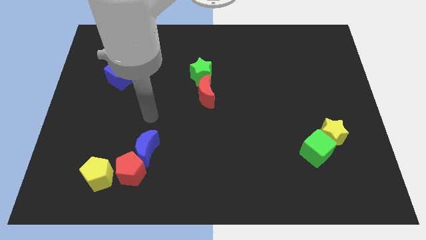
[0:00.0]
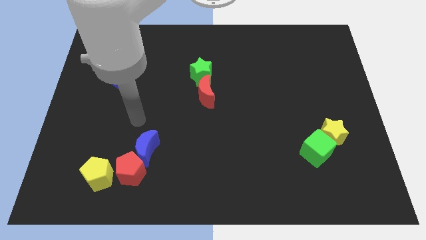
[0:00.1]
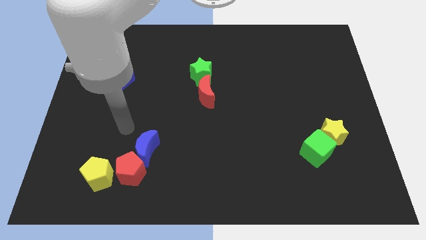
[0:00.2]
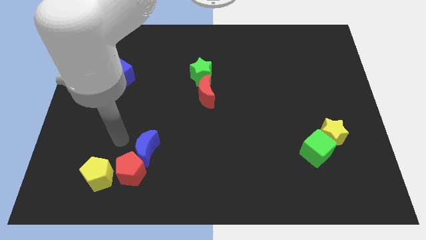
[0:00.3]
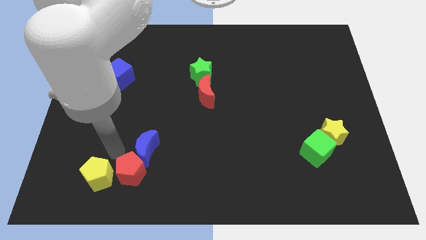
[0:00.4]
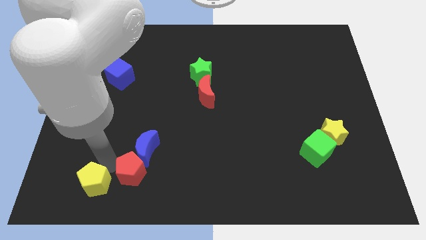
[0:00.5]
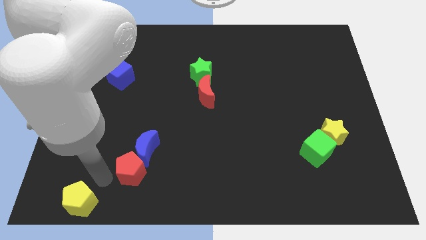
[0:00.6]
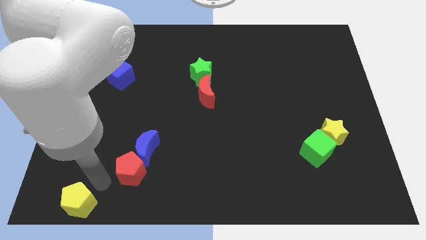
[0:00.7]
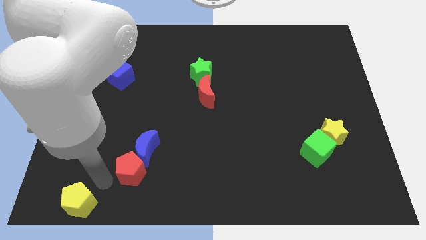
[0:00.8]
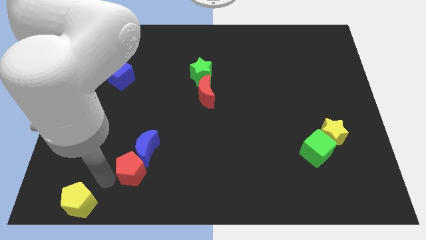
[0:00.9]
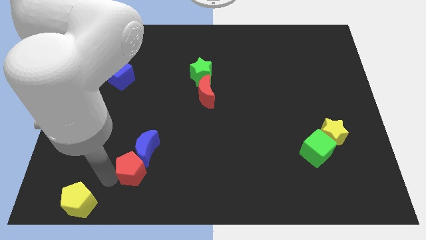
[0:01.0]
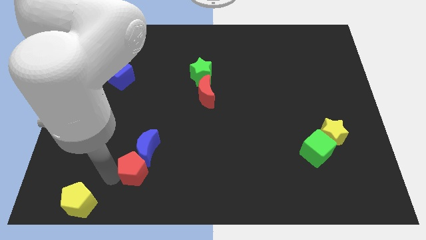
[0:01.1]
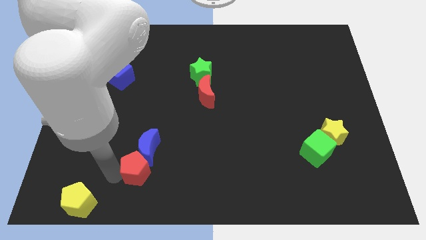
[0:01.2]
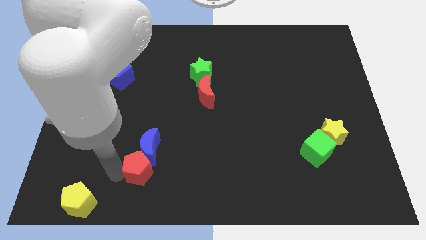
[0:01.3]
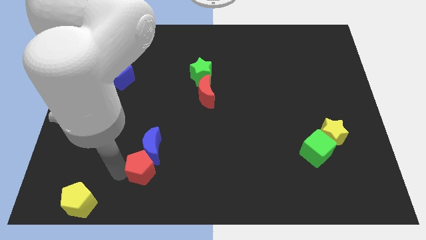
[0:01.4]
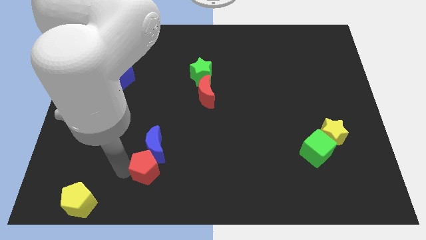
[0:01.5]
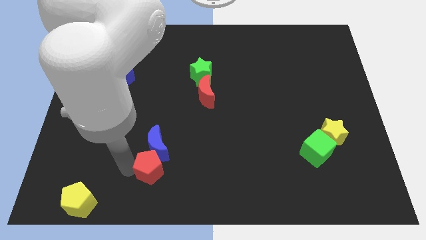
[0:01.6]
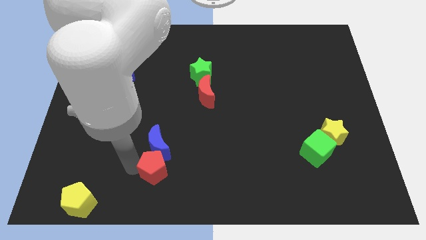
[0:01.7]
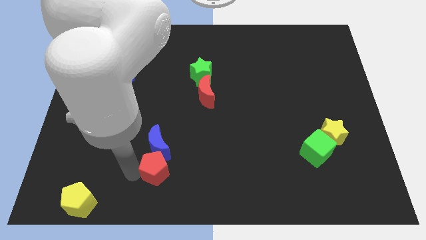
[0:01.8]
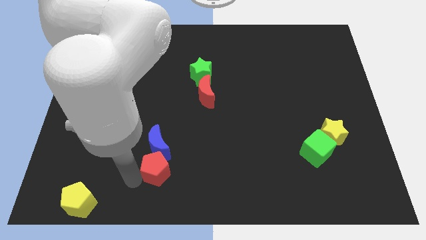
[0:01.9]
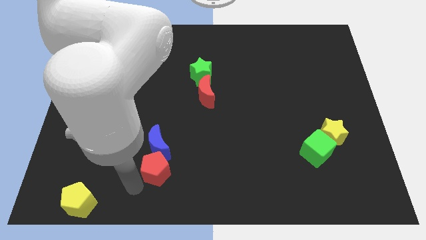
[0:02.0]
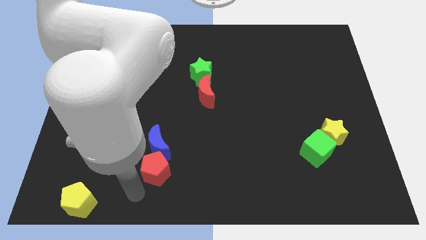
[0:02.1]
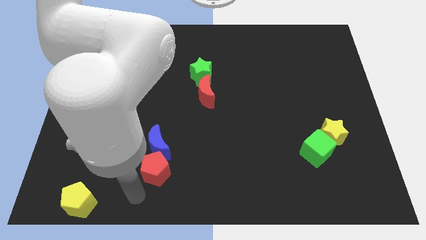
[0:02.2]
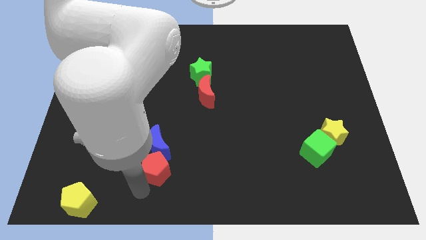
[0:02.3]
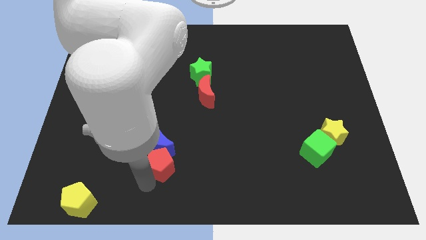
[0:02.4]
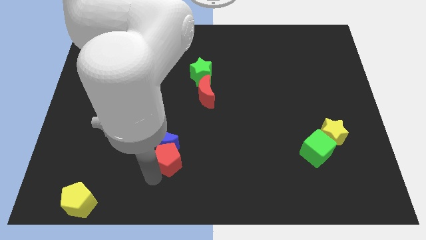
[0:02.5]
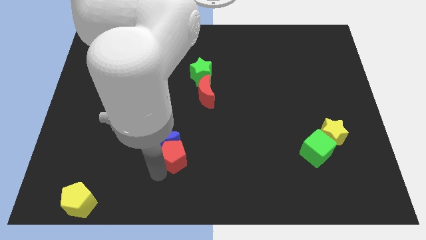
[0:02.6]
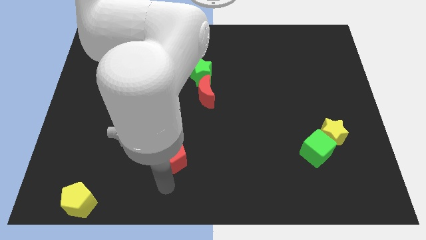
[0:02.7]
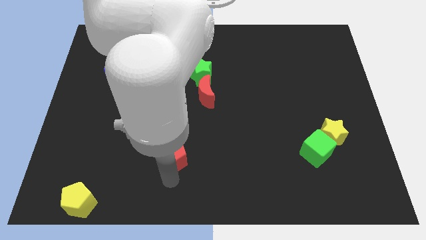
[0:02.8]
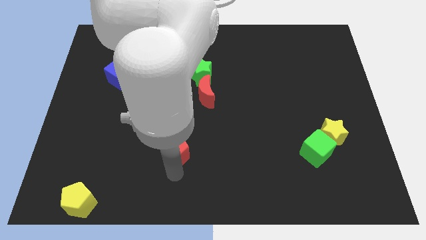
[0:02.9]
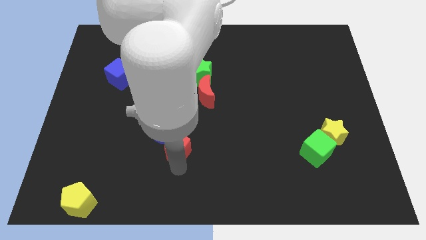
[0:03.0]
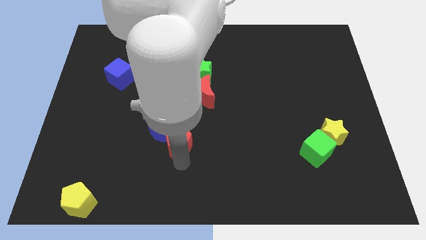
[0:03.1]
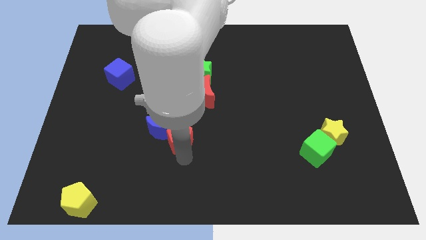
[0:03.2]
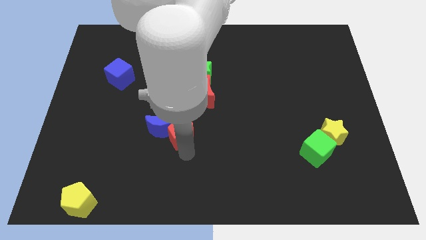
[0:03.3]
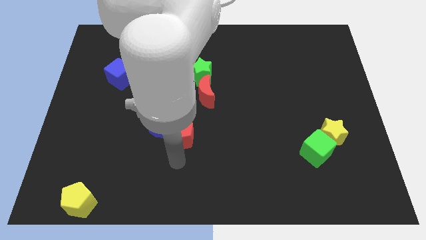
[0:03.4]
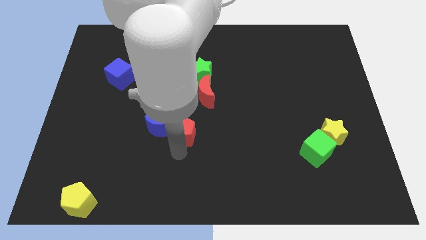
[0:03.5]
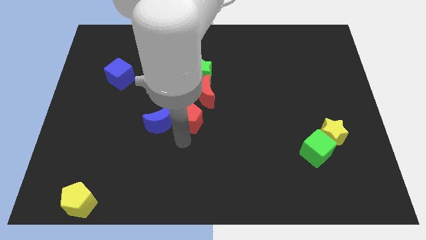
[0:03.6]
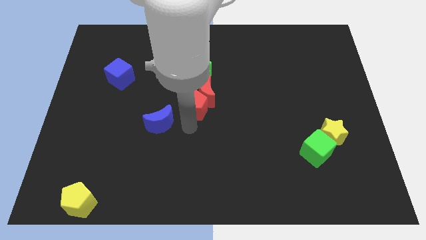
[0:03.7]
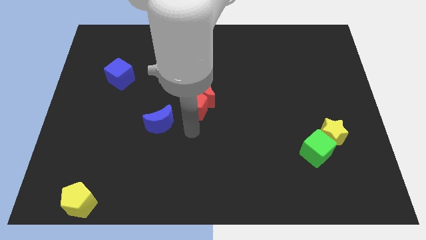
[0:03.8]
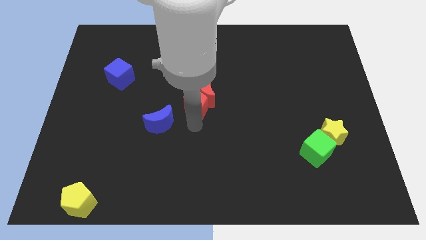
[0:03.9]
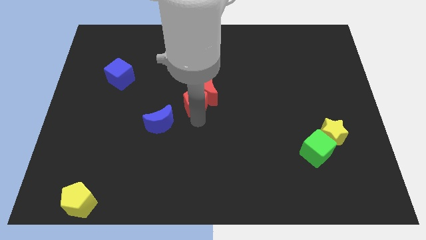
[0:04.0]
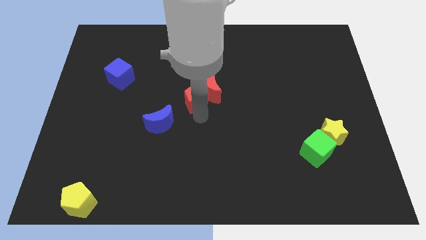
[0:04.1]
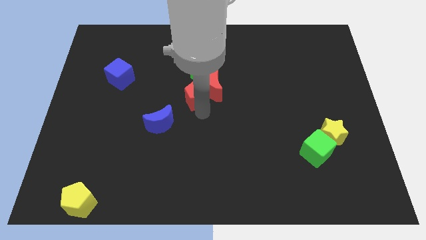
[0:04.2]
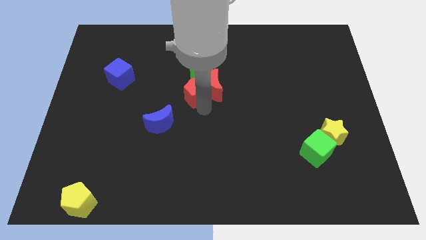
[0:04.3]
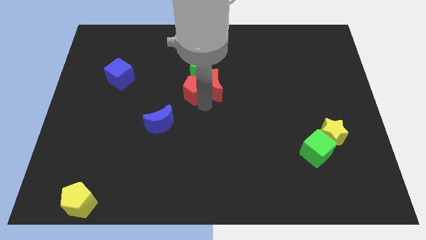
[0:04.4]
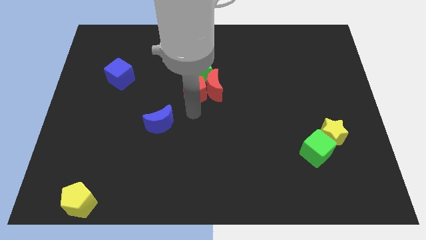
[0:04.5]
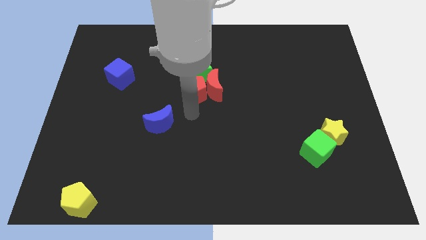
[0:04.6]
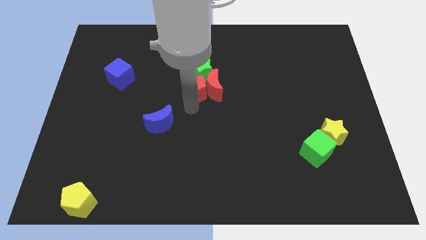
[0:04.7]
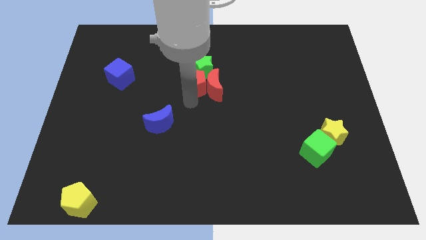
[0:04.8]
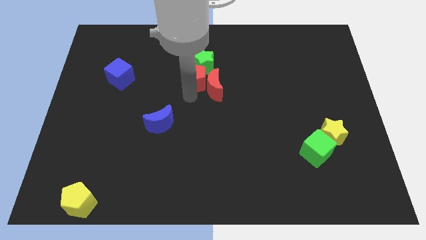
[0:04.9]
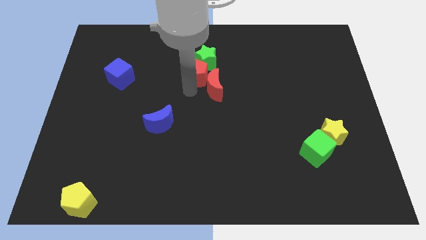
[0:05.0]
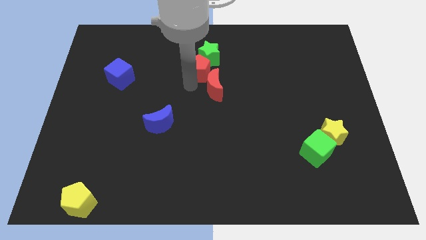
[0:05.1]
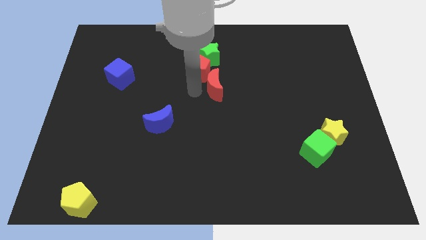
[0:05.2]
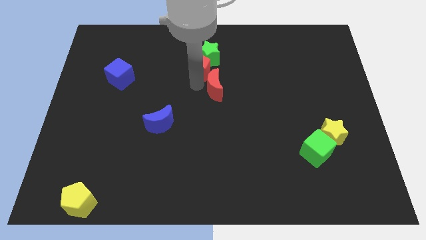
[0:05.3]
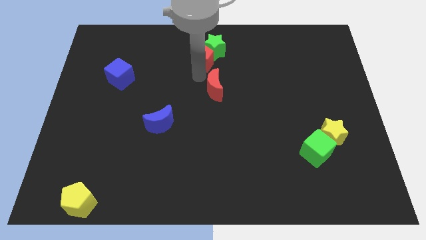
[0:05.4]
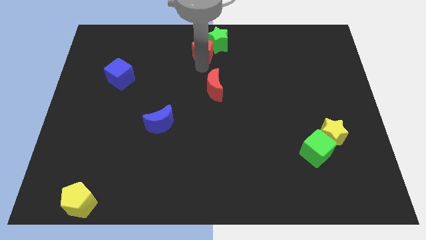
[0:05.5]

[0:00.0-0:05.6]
move the red pentagon to the towards your base

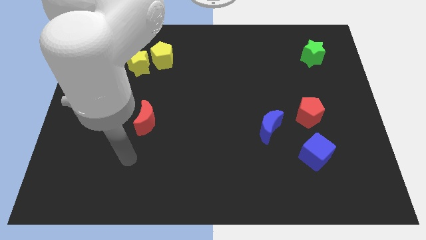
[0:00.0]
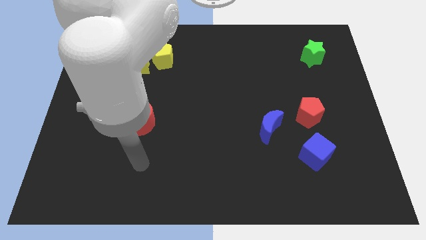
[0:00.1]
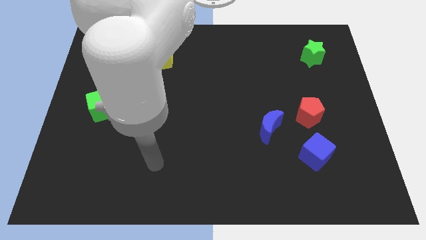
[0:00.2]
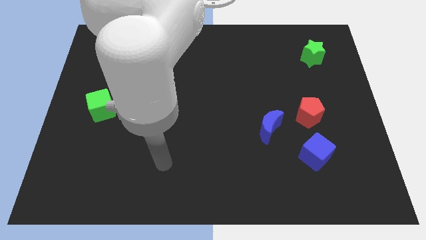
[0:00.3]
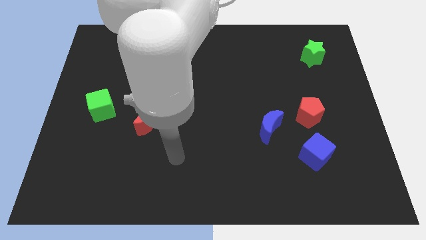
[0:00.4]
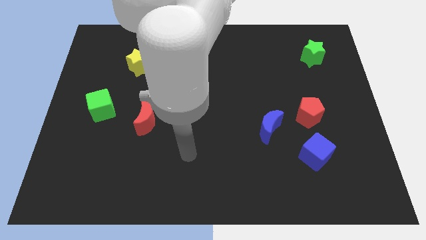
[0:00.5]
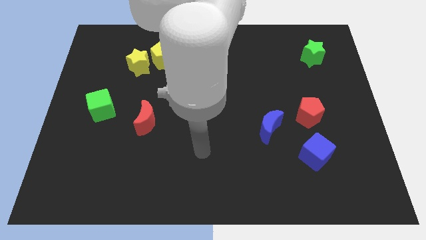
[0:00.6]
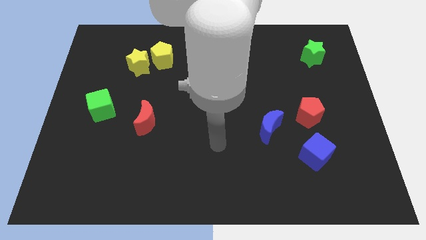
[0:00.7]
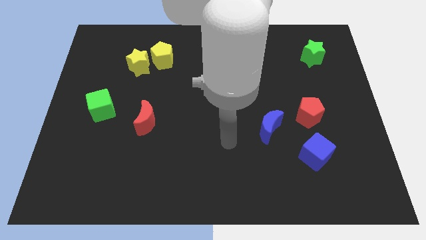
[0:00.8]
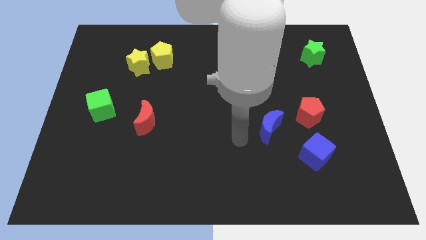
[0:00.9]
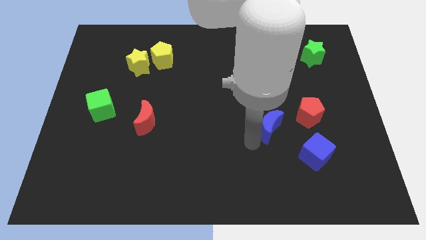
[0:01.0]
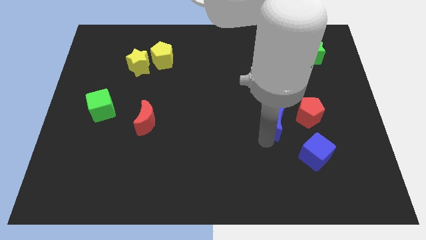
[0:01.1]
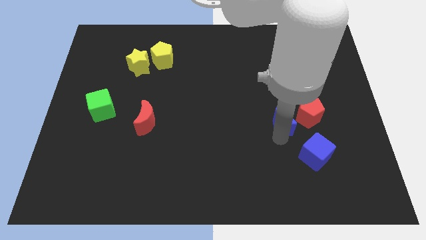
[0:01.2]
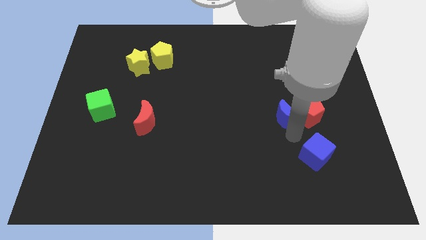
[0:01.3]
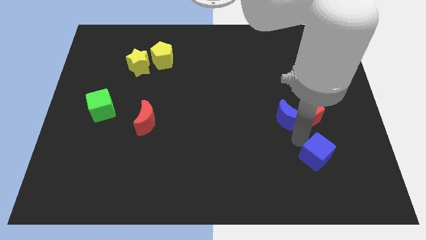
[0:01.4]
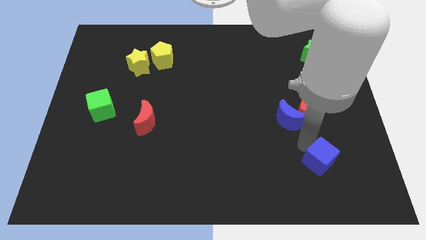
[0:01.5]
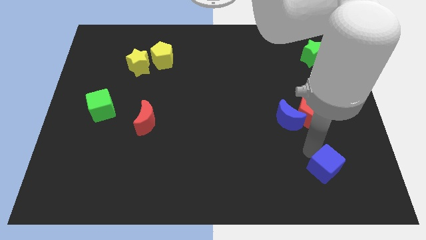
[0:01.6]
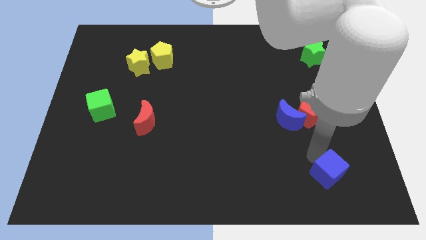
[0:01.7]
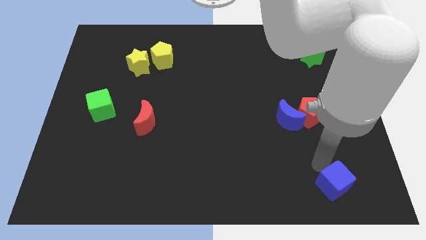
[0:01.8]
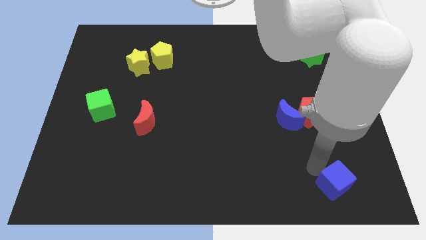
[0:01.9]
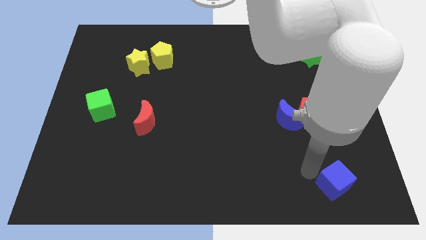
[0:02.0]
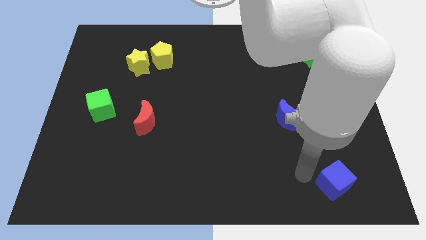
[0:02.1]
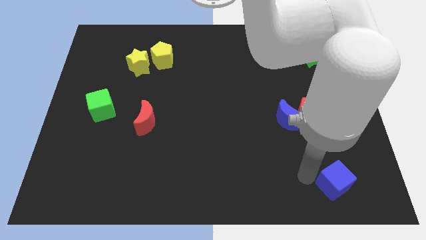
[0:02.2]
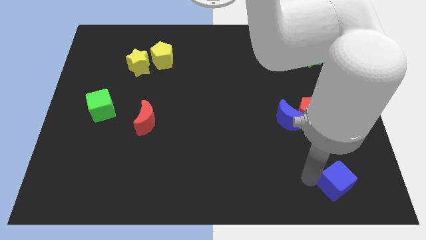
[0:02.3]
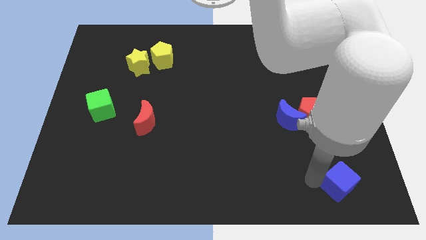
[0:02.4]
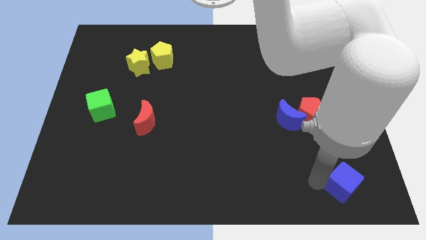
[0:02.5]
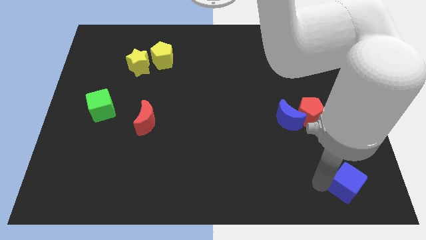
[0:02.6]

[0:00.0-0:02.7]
slide the blue cube to the lower right corner
